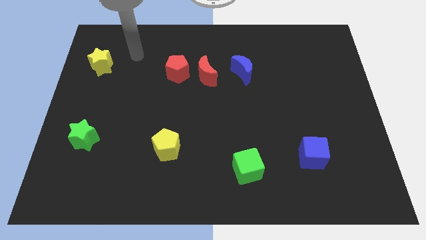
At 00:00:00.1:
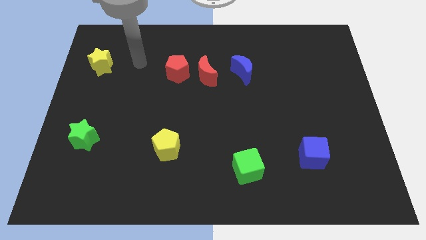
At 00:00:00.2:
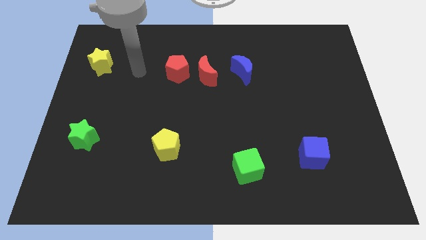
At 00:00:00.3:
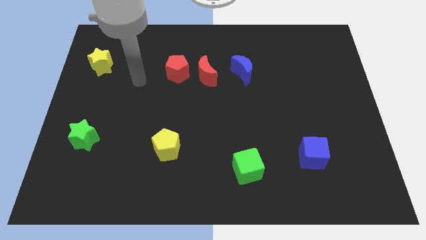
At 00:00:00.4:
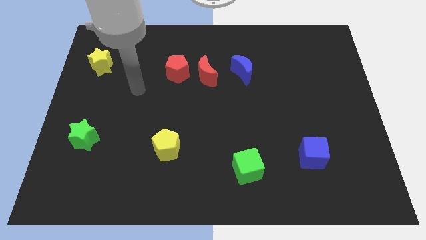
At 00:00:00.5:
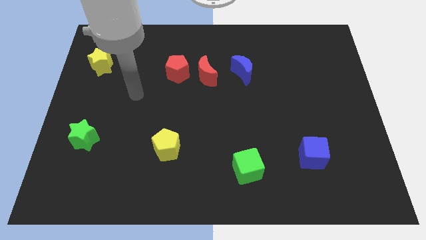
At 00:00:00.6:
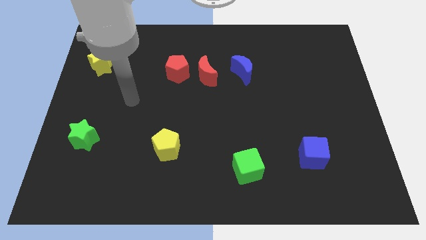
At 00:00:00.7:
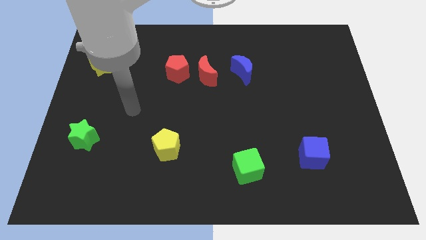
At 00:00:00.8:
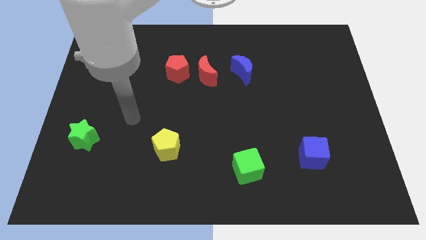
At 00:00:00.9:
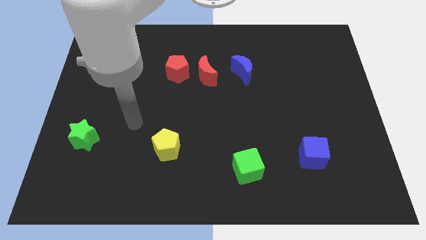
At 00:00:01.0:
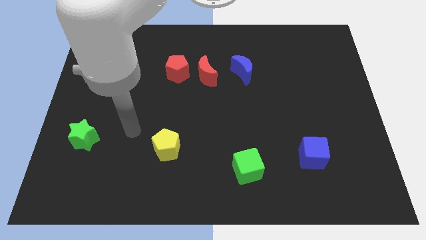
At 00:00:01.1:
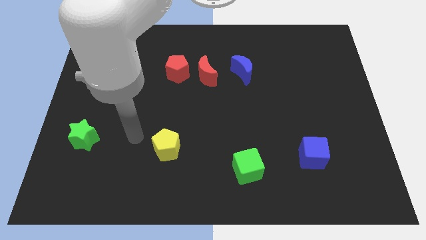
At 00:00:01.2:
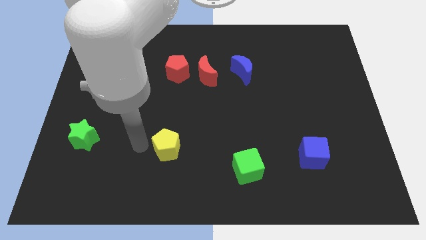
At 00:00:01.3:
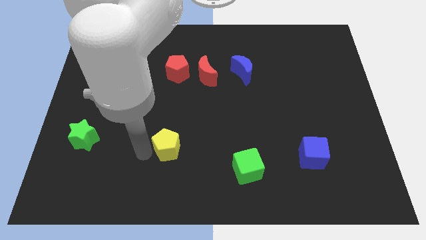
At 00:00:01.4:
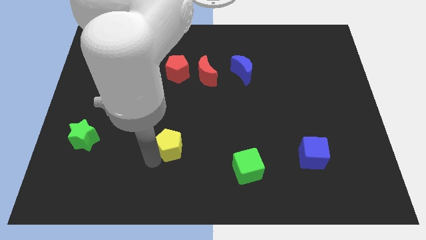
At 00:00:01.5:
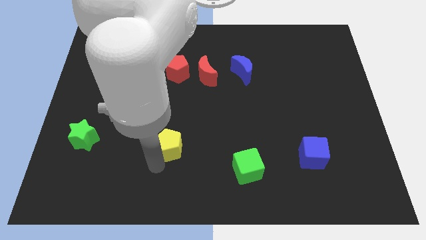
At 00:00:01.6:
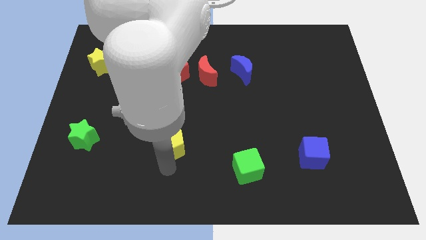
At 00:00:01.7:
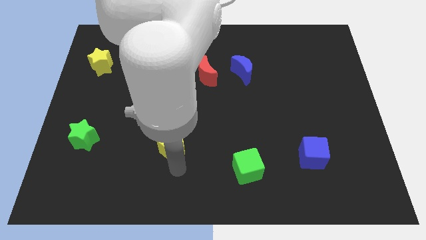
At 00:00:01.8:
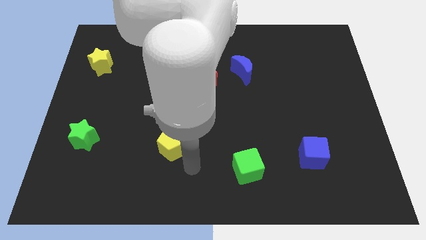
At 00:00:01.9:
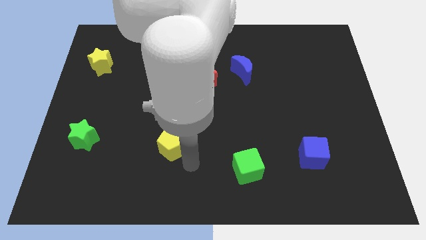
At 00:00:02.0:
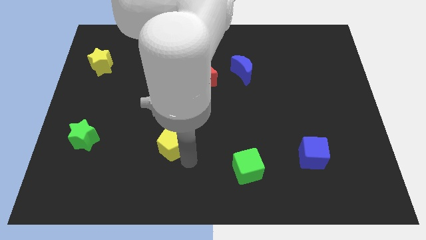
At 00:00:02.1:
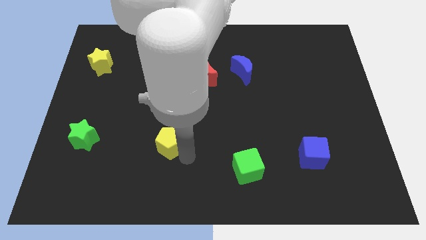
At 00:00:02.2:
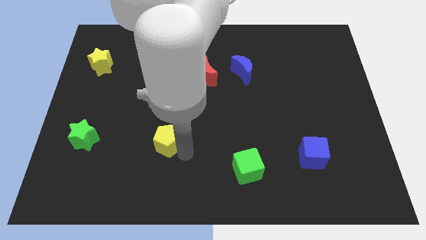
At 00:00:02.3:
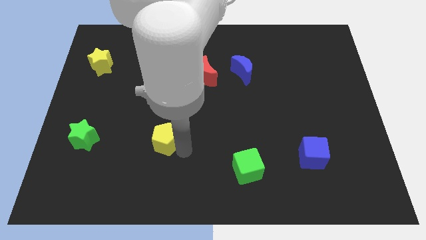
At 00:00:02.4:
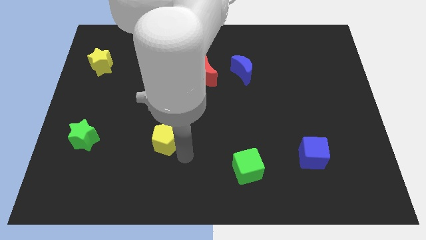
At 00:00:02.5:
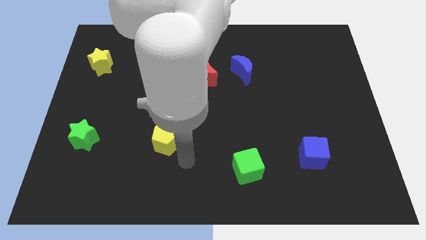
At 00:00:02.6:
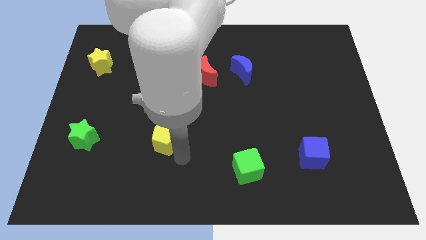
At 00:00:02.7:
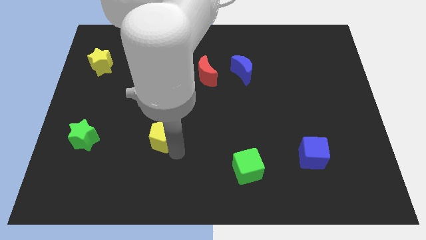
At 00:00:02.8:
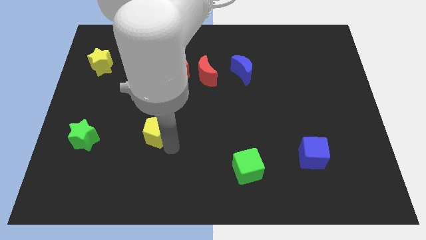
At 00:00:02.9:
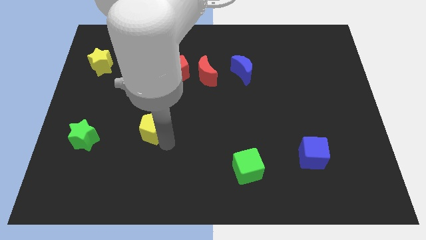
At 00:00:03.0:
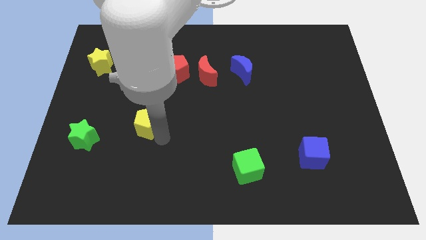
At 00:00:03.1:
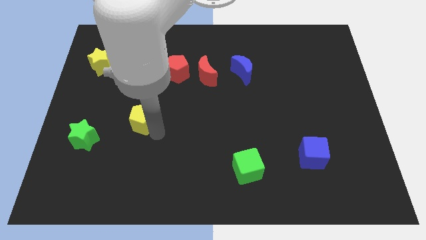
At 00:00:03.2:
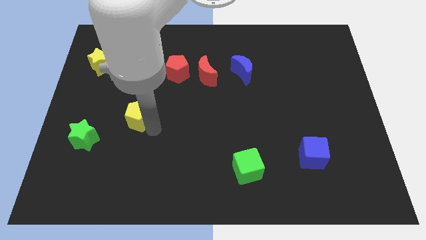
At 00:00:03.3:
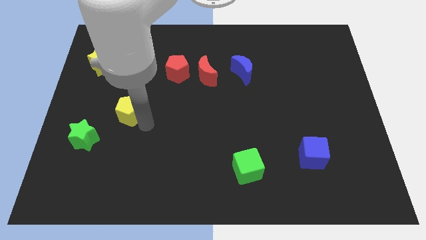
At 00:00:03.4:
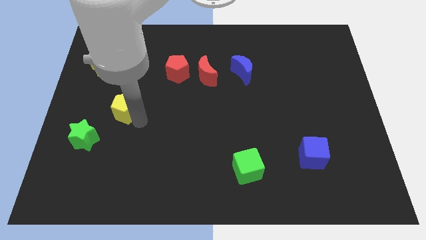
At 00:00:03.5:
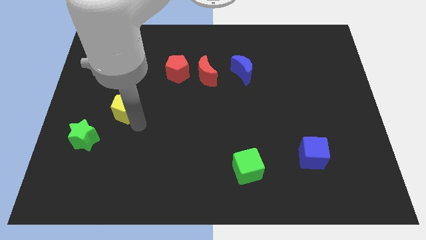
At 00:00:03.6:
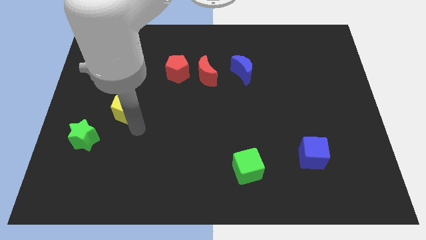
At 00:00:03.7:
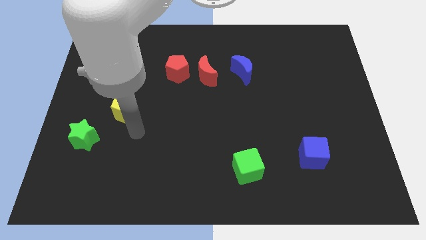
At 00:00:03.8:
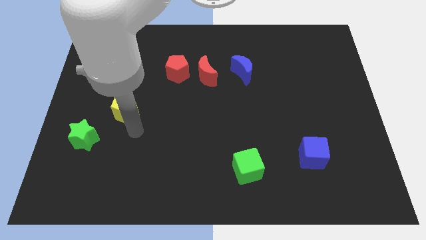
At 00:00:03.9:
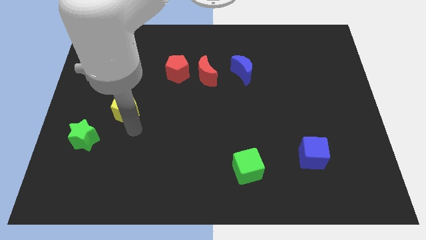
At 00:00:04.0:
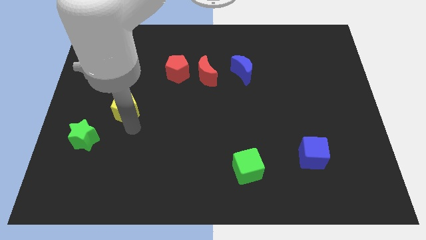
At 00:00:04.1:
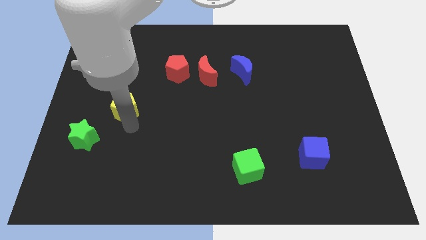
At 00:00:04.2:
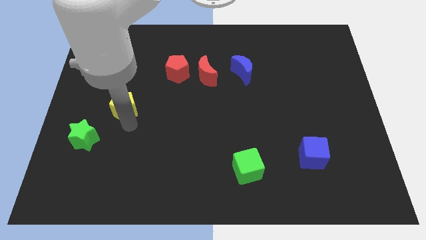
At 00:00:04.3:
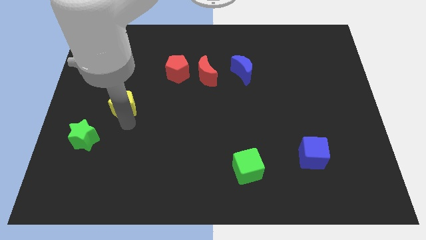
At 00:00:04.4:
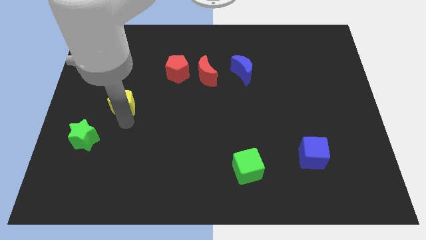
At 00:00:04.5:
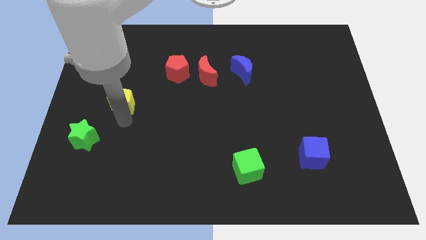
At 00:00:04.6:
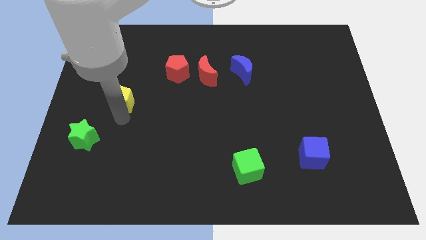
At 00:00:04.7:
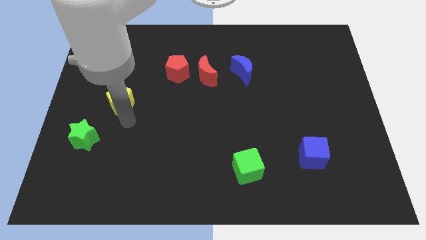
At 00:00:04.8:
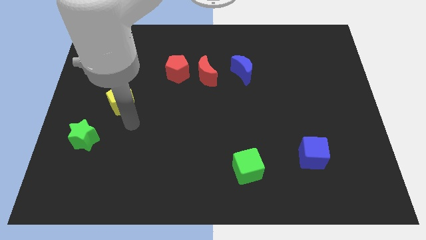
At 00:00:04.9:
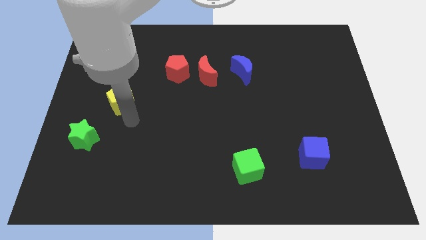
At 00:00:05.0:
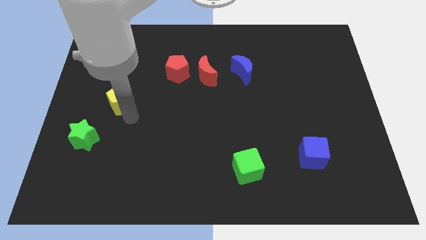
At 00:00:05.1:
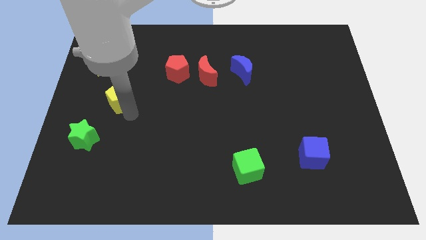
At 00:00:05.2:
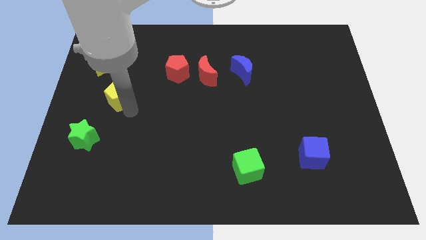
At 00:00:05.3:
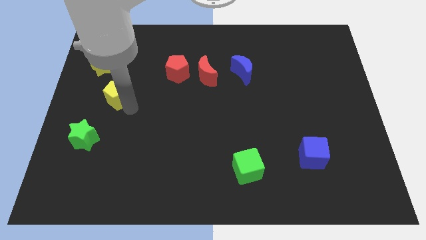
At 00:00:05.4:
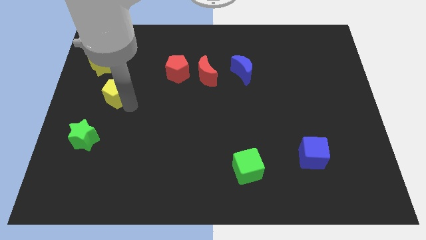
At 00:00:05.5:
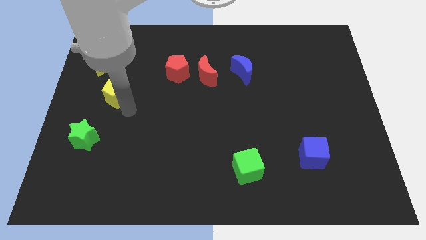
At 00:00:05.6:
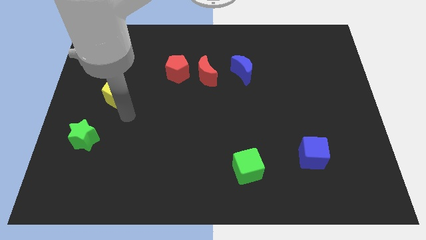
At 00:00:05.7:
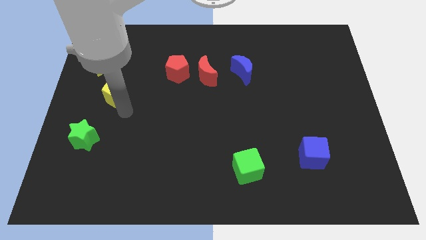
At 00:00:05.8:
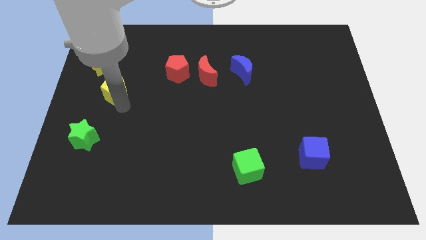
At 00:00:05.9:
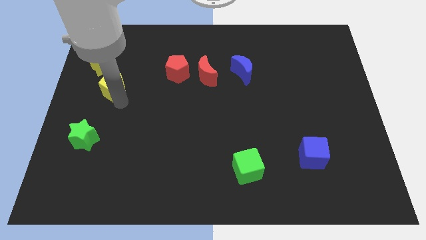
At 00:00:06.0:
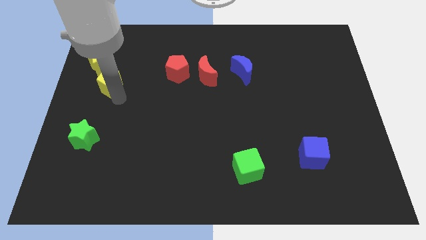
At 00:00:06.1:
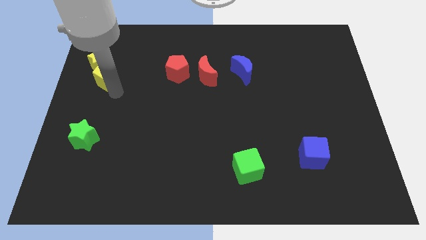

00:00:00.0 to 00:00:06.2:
move the yellow pentagon close to the yellow star

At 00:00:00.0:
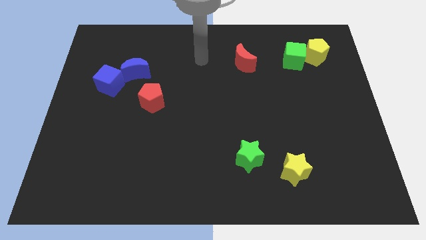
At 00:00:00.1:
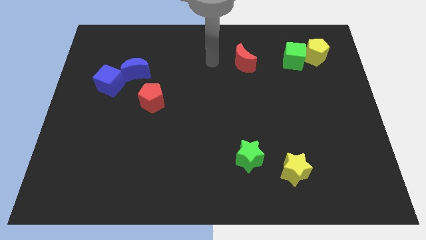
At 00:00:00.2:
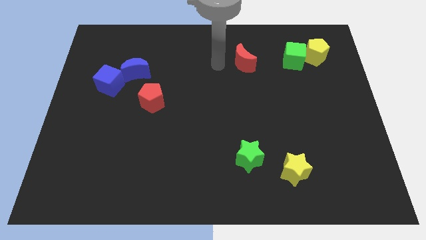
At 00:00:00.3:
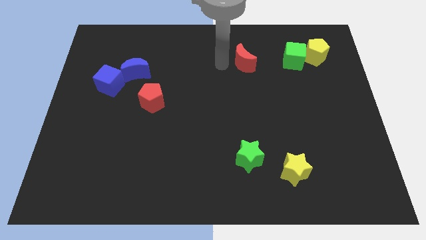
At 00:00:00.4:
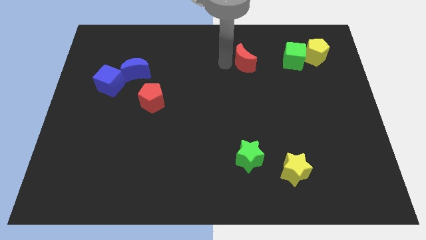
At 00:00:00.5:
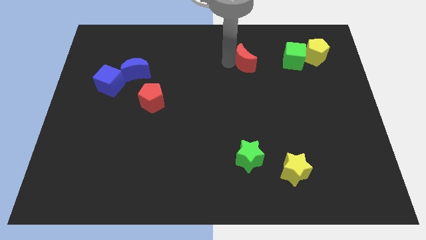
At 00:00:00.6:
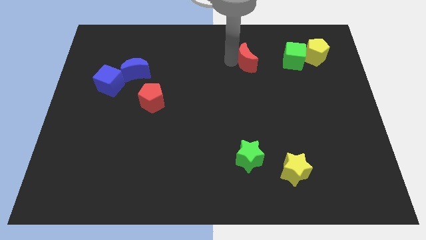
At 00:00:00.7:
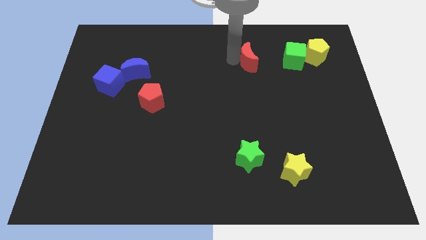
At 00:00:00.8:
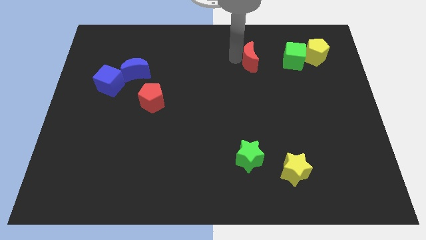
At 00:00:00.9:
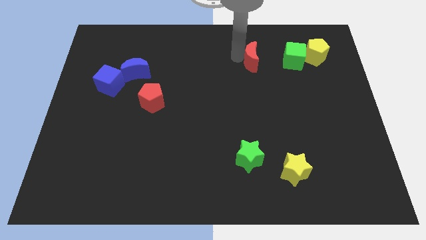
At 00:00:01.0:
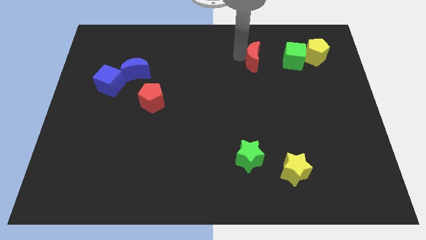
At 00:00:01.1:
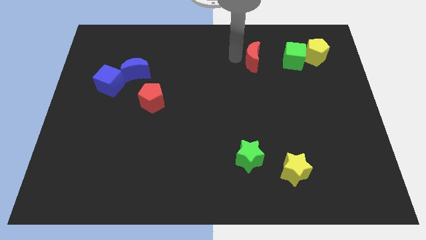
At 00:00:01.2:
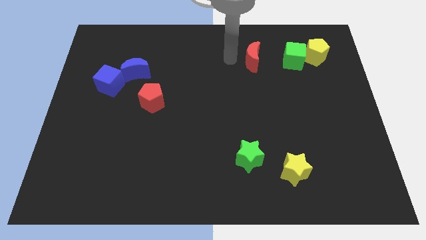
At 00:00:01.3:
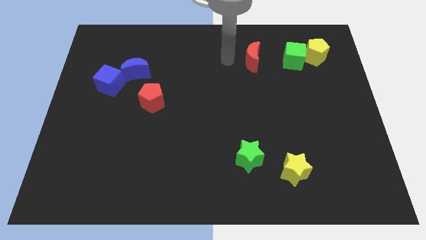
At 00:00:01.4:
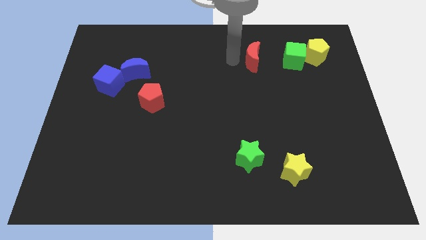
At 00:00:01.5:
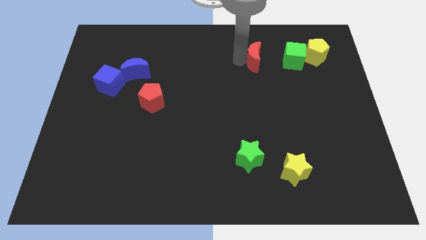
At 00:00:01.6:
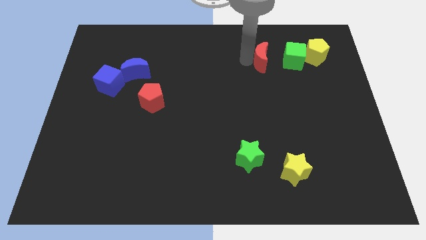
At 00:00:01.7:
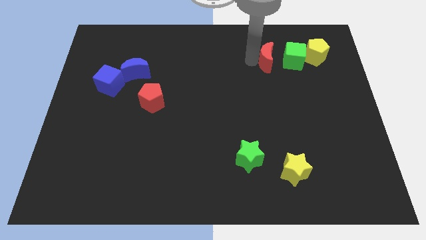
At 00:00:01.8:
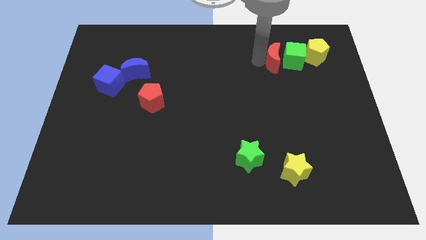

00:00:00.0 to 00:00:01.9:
push the red moon close to the green cube
